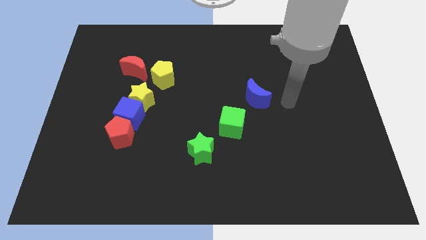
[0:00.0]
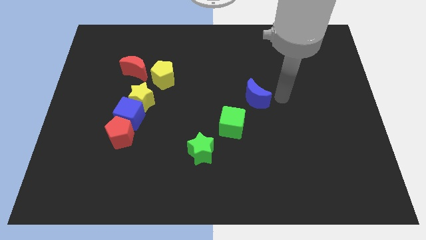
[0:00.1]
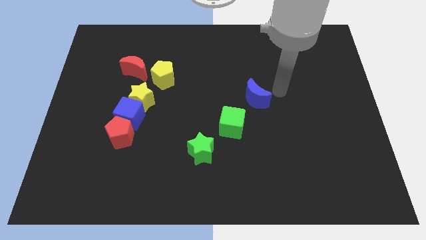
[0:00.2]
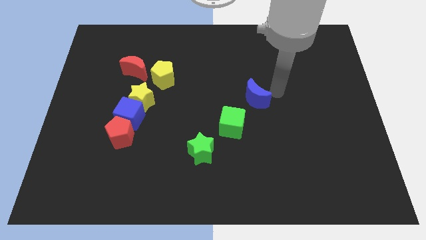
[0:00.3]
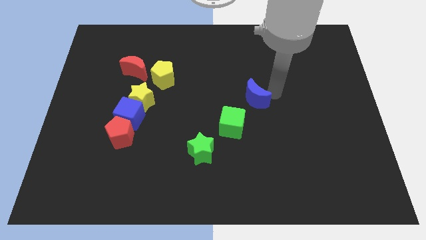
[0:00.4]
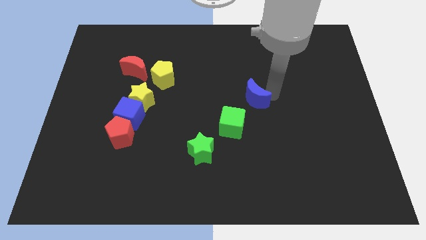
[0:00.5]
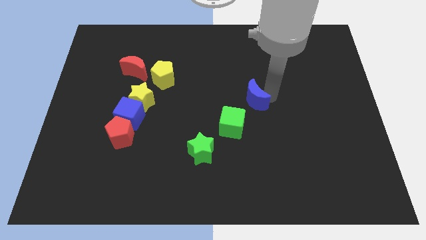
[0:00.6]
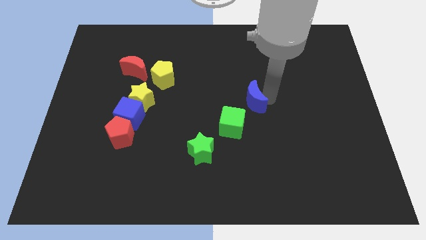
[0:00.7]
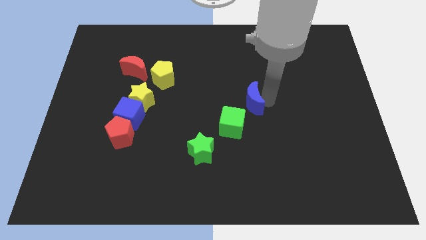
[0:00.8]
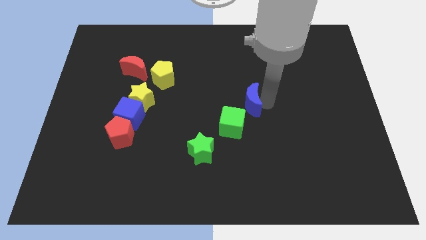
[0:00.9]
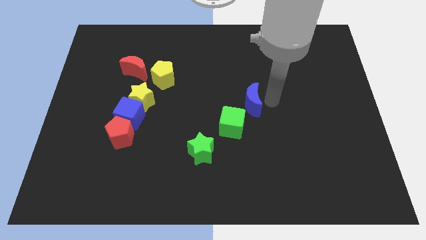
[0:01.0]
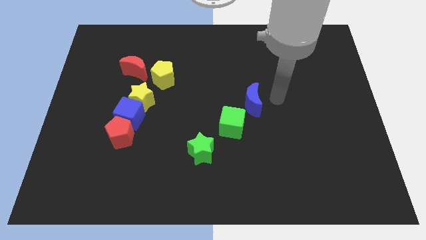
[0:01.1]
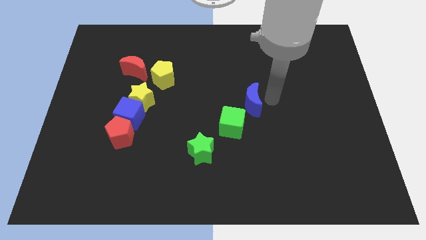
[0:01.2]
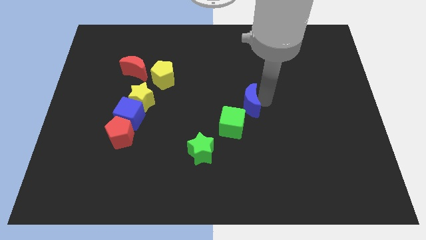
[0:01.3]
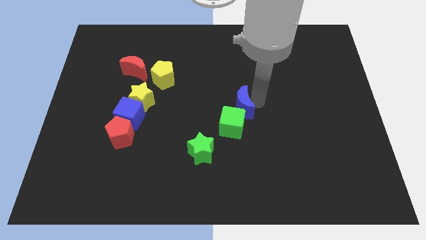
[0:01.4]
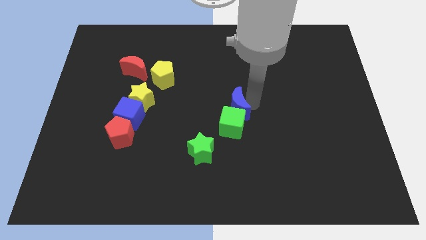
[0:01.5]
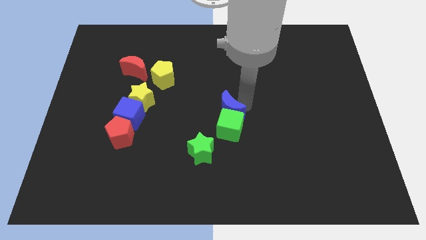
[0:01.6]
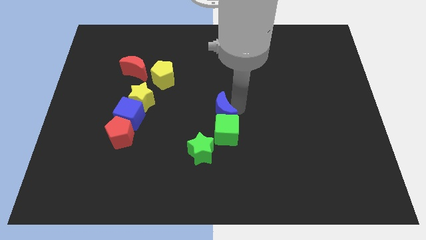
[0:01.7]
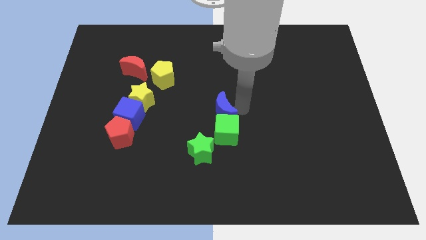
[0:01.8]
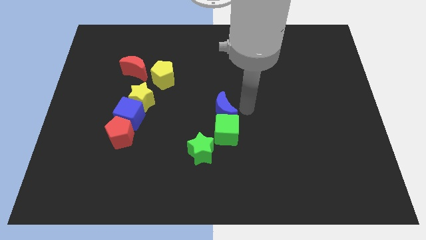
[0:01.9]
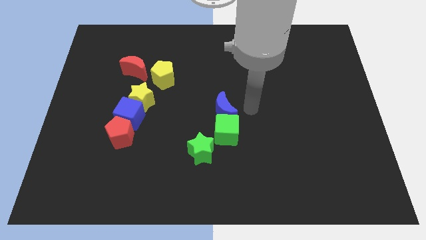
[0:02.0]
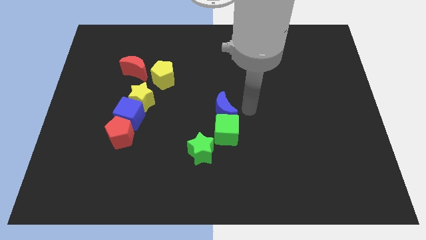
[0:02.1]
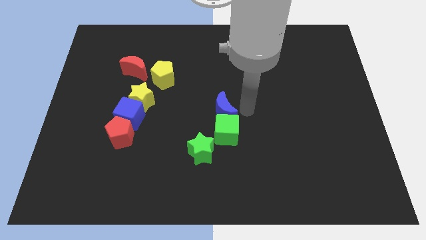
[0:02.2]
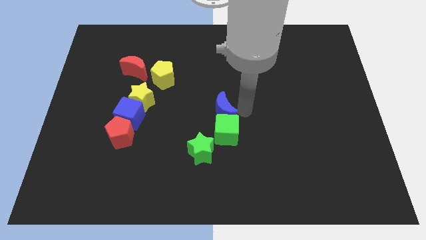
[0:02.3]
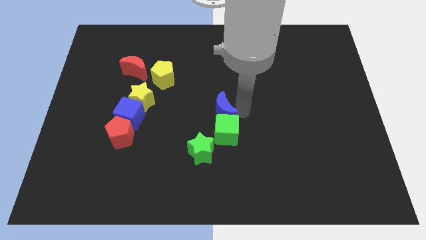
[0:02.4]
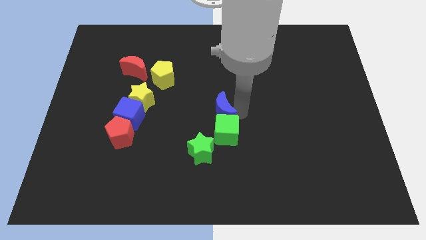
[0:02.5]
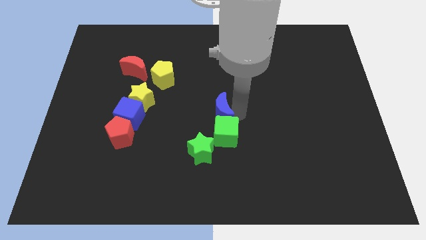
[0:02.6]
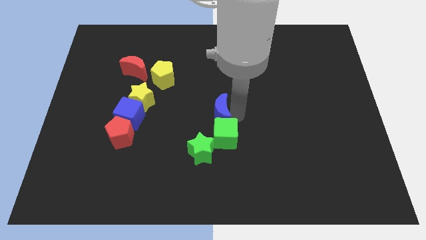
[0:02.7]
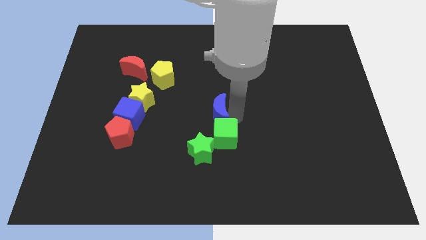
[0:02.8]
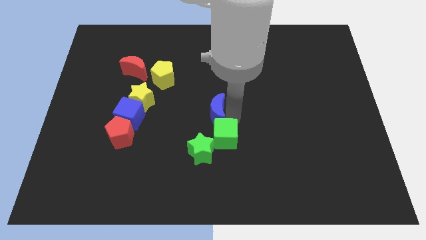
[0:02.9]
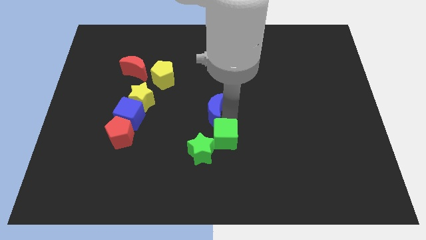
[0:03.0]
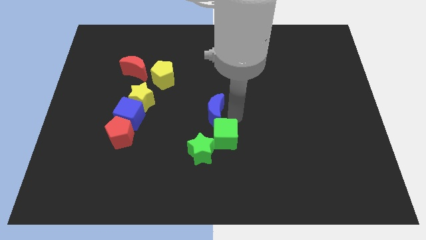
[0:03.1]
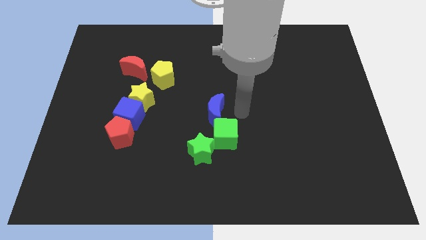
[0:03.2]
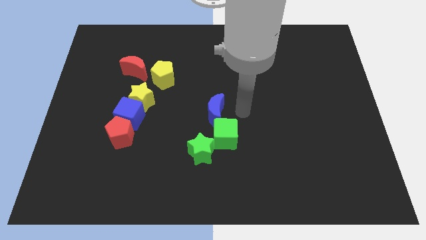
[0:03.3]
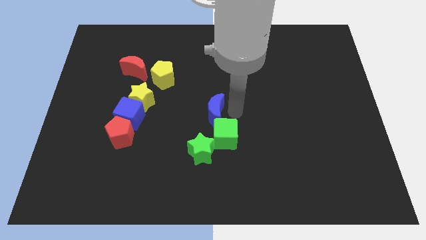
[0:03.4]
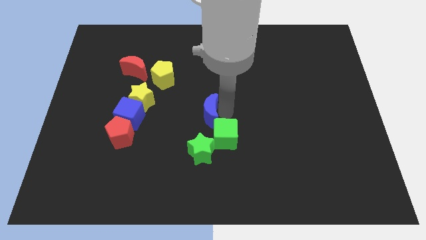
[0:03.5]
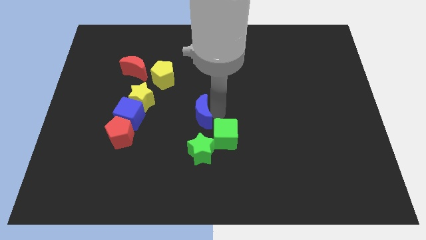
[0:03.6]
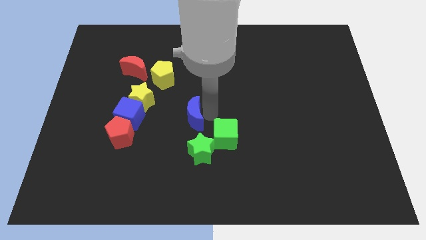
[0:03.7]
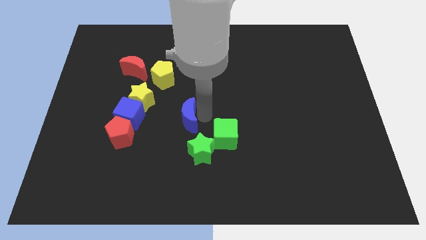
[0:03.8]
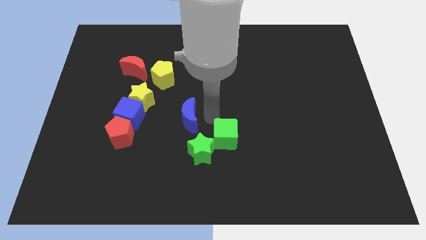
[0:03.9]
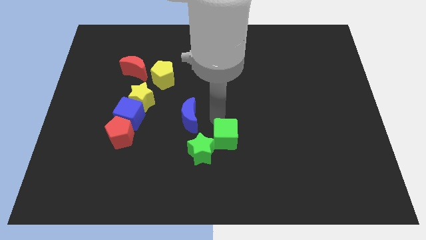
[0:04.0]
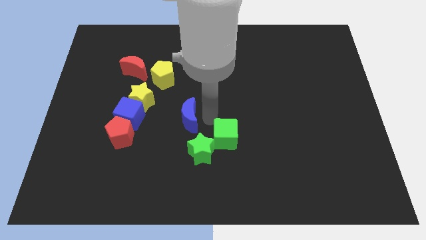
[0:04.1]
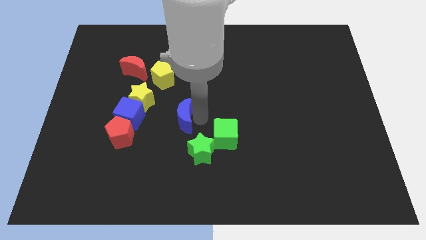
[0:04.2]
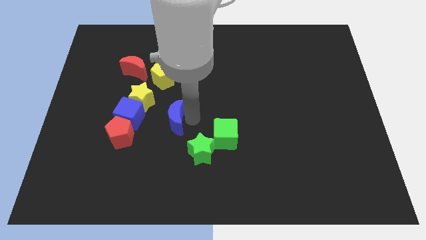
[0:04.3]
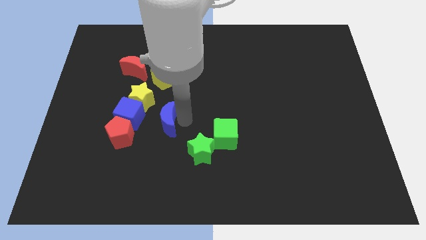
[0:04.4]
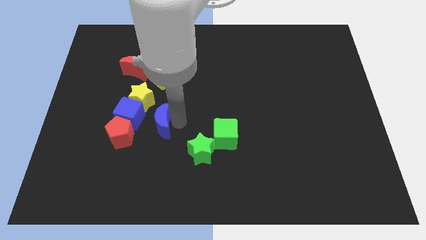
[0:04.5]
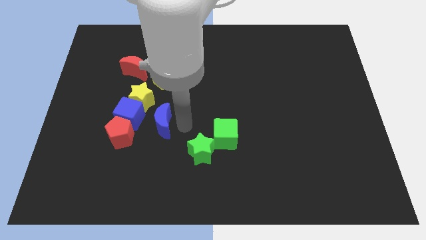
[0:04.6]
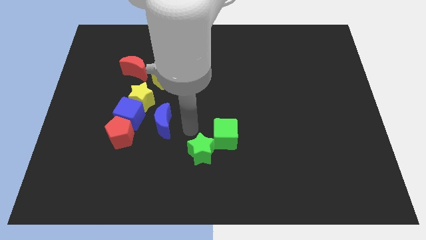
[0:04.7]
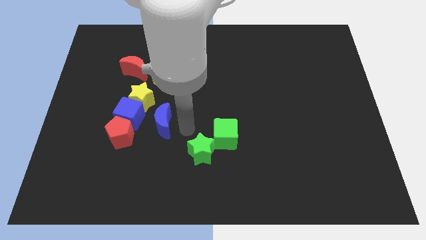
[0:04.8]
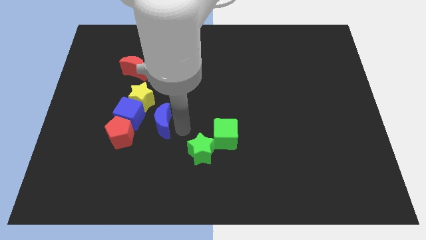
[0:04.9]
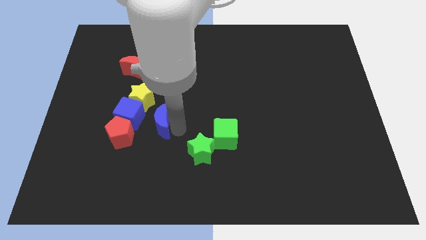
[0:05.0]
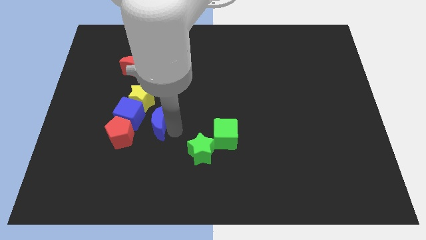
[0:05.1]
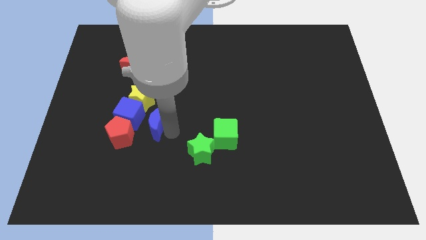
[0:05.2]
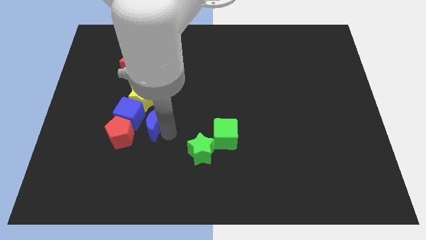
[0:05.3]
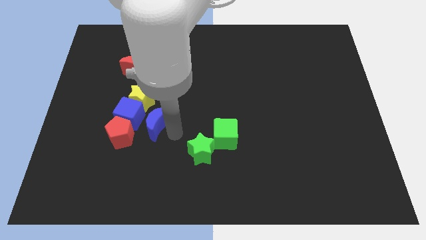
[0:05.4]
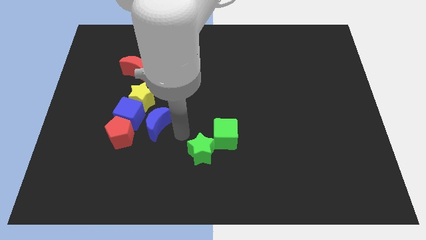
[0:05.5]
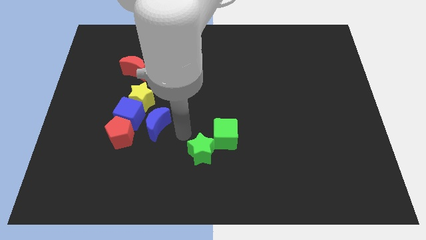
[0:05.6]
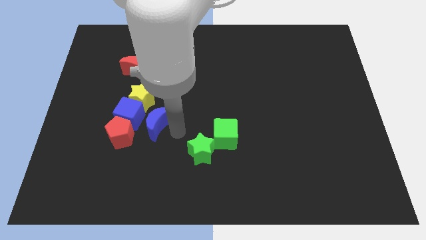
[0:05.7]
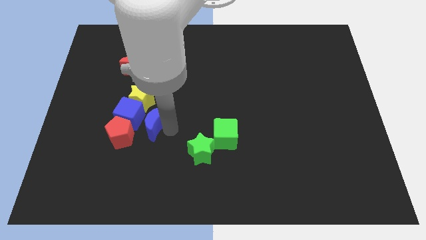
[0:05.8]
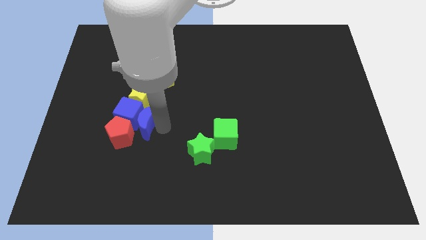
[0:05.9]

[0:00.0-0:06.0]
put the blue moon next to the blue cube

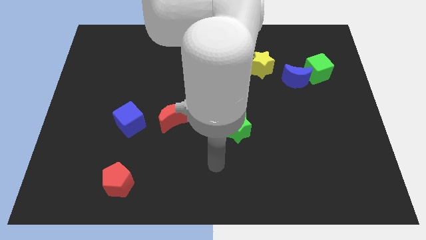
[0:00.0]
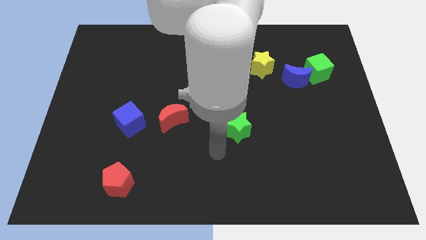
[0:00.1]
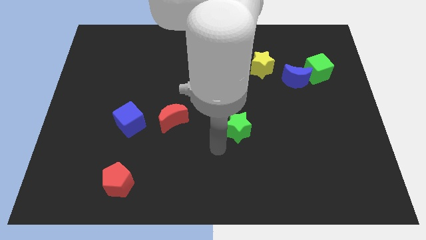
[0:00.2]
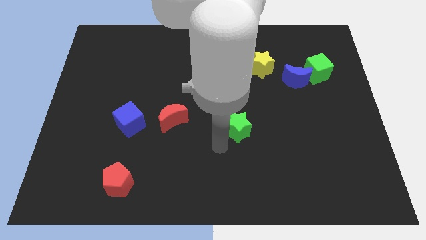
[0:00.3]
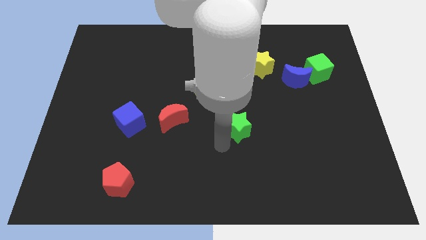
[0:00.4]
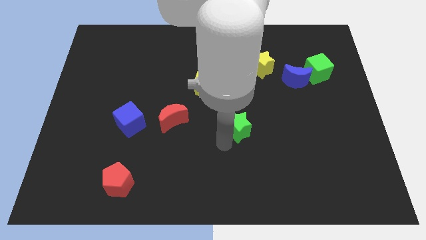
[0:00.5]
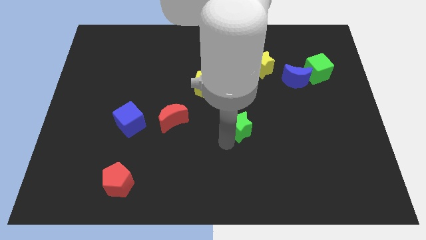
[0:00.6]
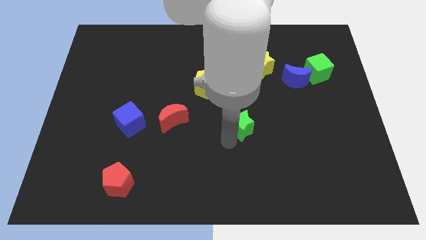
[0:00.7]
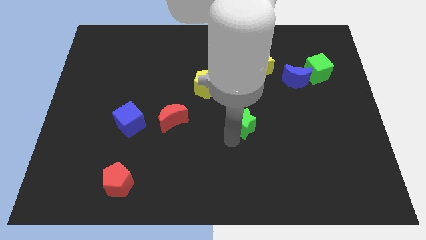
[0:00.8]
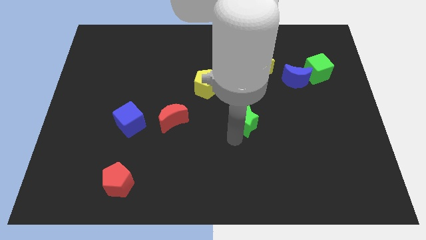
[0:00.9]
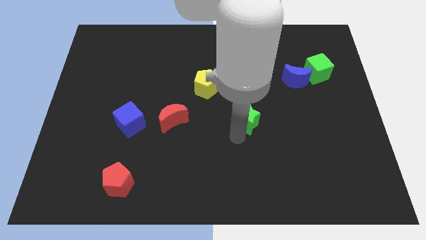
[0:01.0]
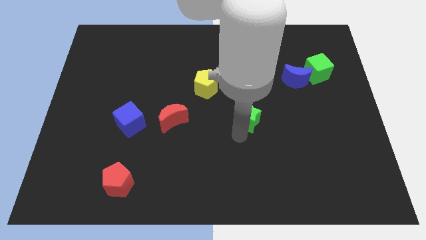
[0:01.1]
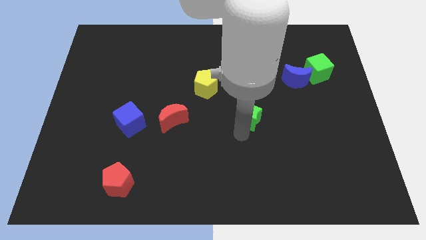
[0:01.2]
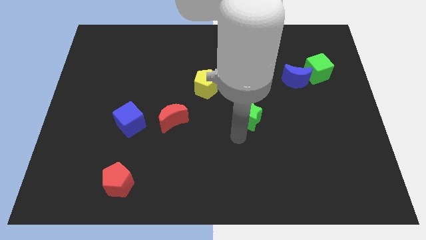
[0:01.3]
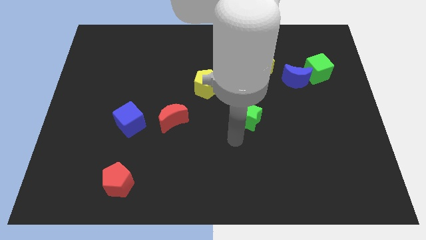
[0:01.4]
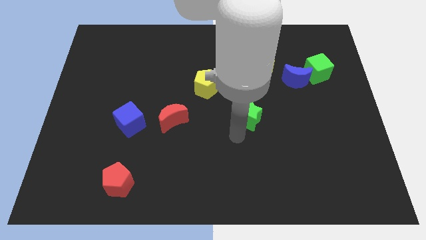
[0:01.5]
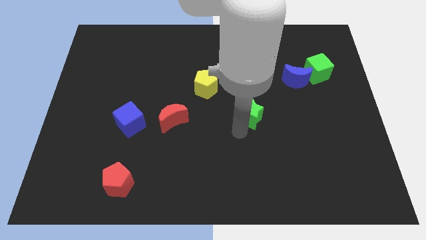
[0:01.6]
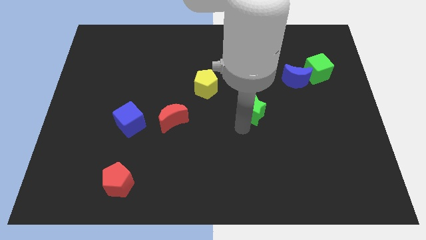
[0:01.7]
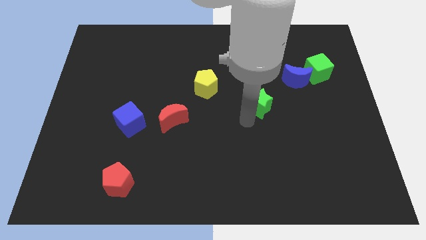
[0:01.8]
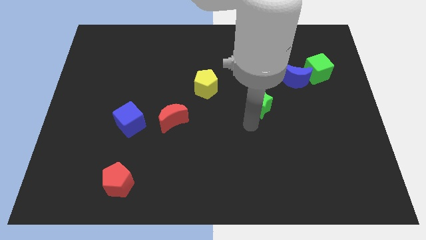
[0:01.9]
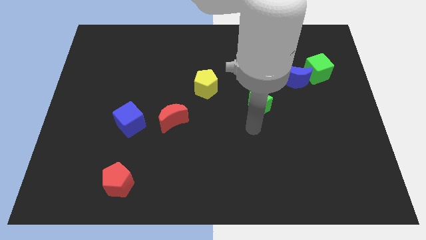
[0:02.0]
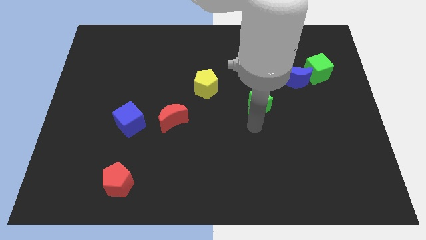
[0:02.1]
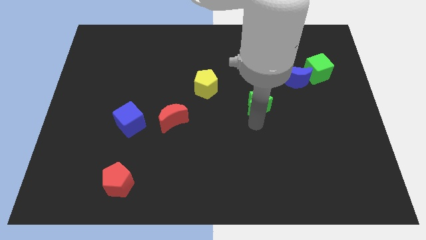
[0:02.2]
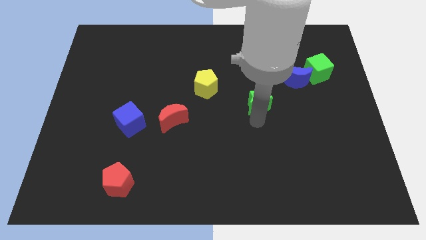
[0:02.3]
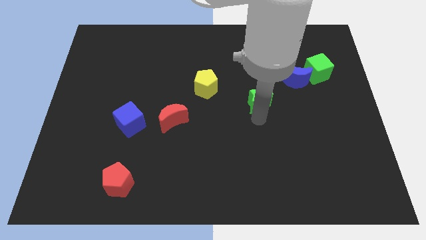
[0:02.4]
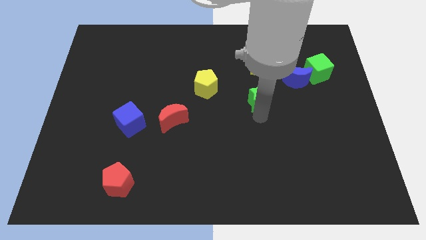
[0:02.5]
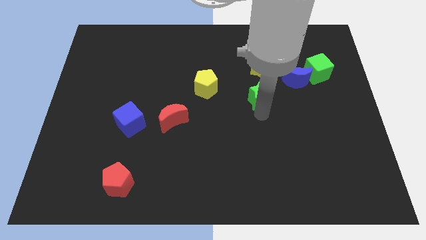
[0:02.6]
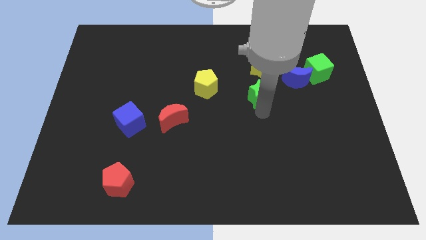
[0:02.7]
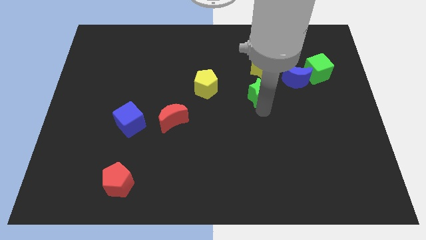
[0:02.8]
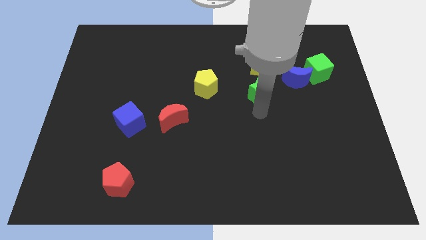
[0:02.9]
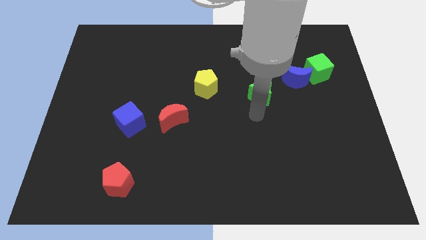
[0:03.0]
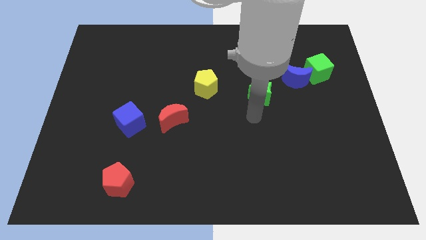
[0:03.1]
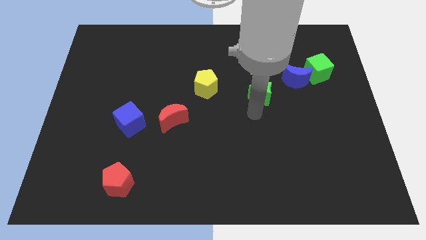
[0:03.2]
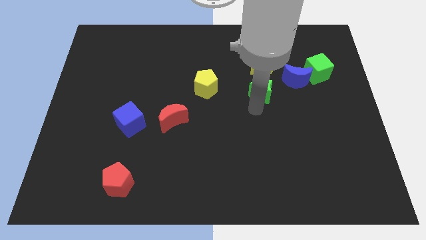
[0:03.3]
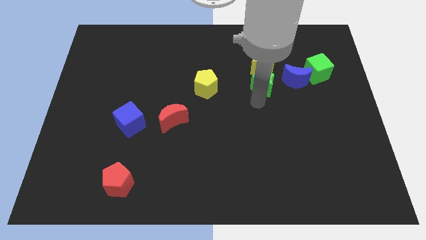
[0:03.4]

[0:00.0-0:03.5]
move the green star close to the yellow star
